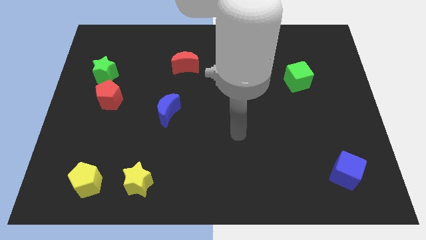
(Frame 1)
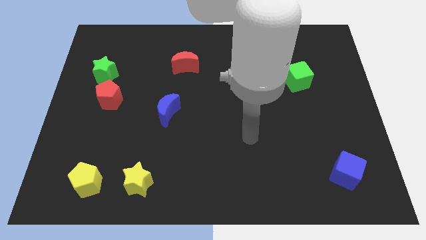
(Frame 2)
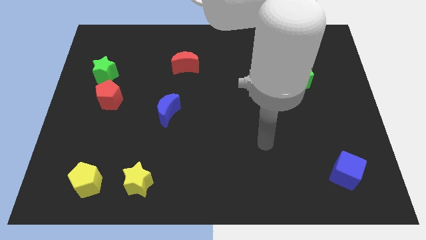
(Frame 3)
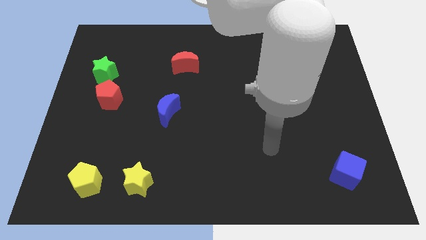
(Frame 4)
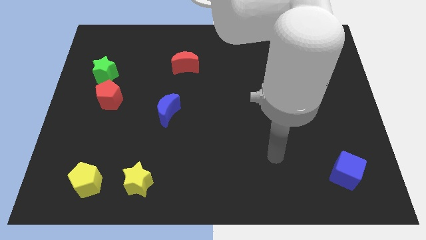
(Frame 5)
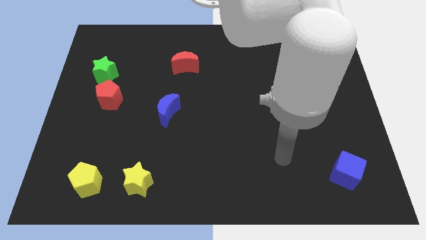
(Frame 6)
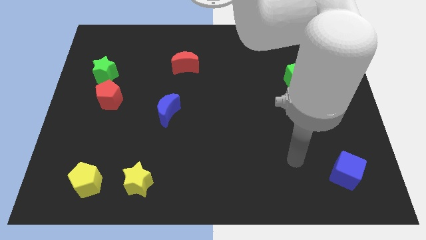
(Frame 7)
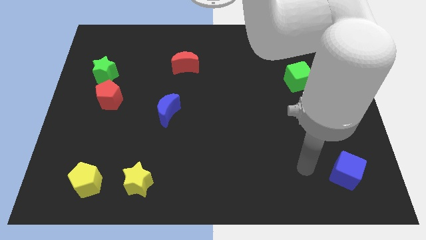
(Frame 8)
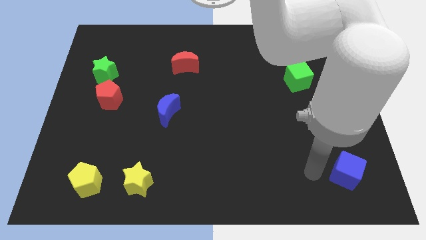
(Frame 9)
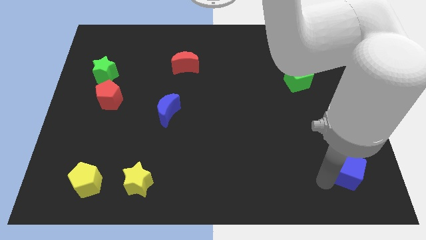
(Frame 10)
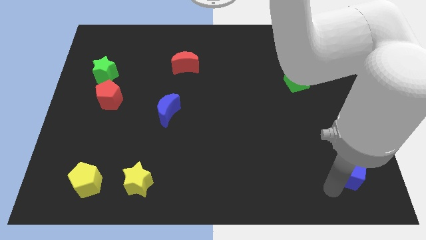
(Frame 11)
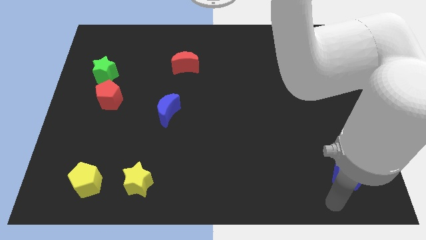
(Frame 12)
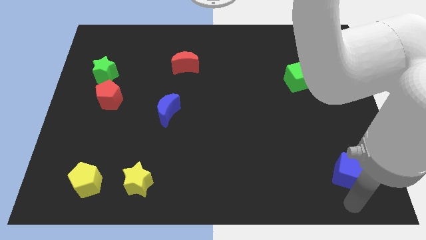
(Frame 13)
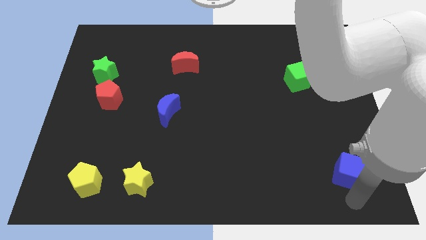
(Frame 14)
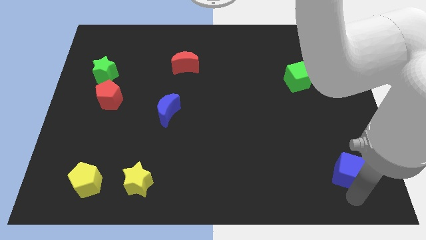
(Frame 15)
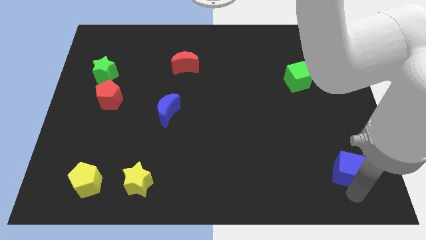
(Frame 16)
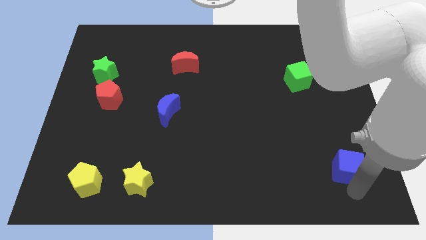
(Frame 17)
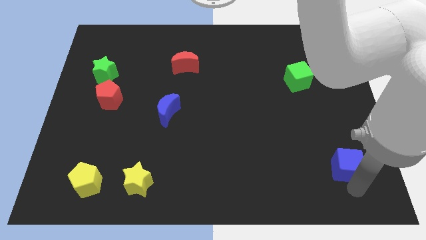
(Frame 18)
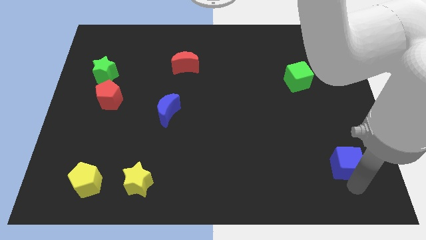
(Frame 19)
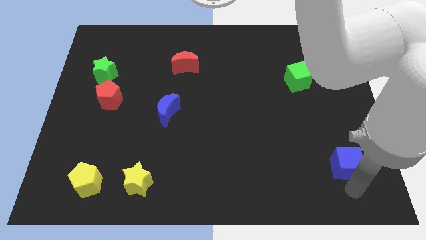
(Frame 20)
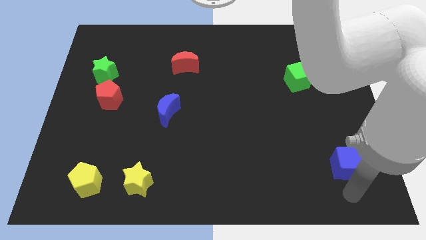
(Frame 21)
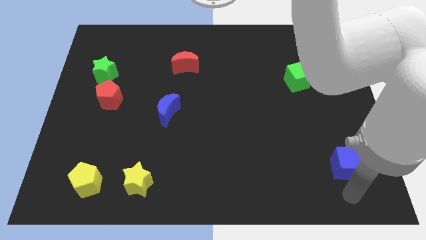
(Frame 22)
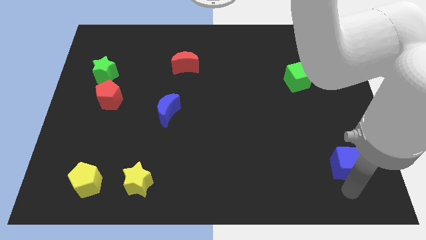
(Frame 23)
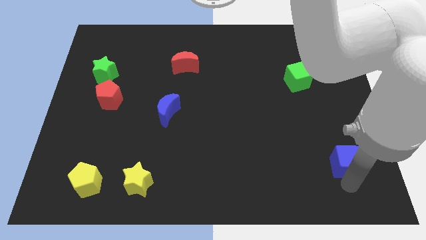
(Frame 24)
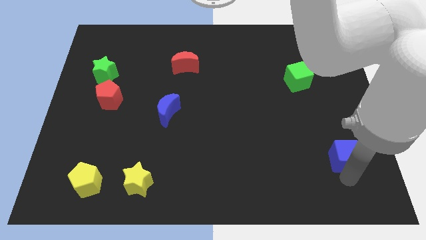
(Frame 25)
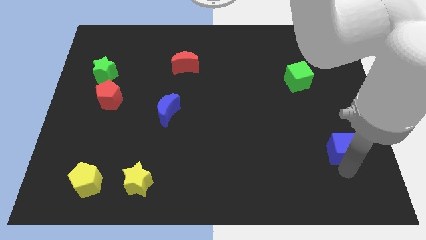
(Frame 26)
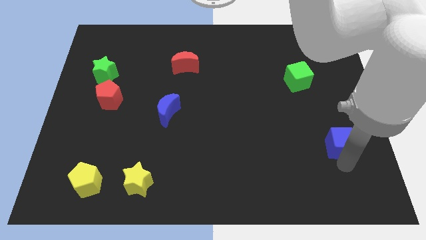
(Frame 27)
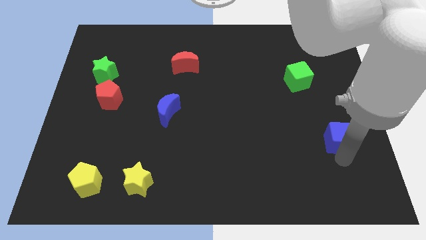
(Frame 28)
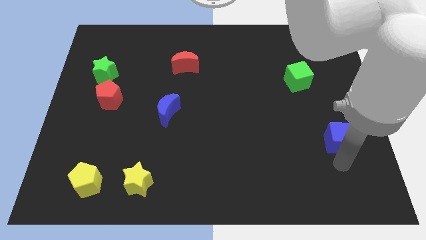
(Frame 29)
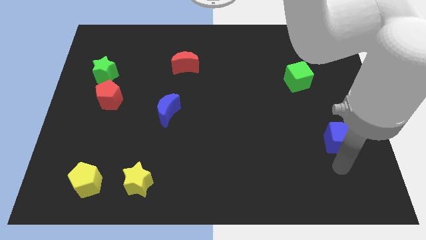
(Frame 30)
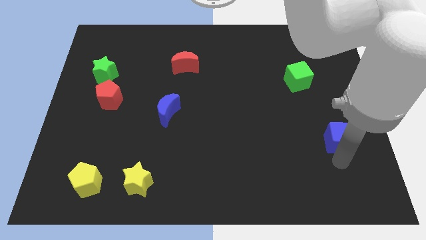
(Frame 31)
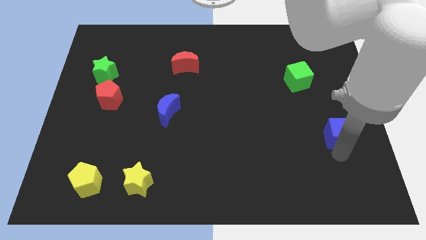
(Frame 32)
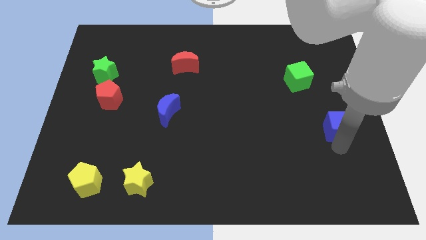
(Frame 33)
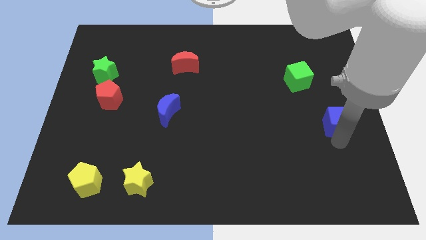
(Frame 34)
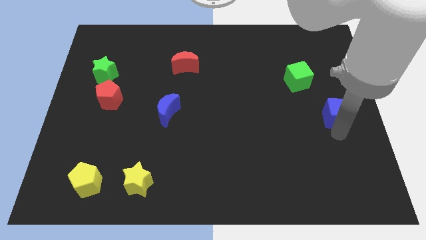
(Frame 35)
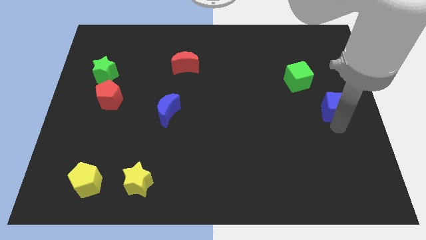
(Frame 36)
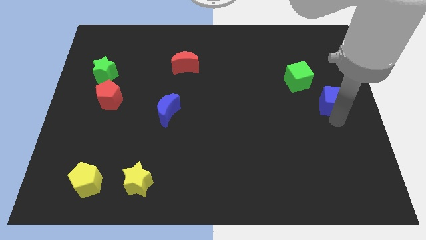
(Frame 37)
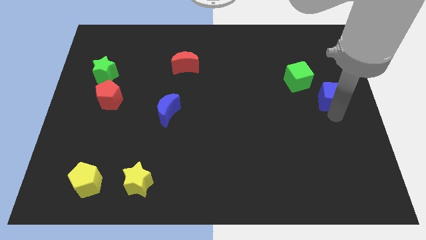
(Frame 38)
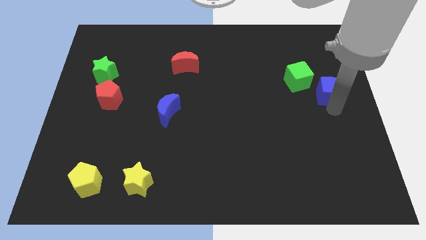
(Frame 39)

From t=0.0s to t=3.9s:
push the blue cube up

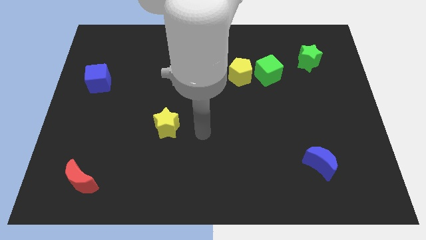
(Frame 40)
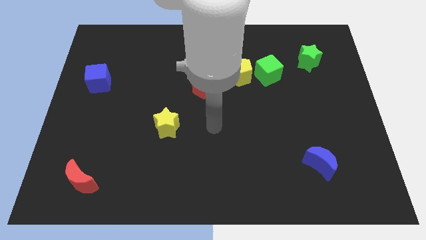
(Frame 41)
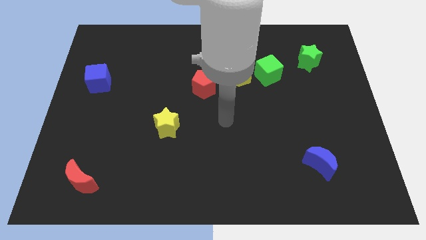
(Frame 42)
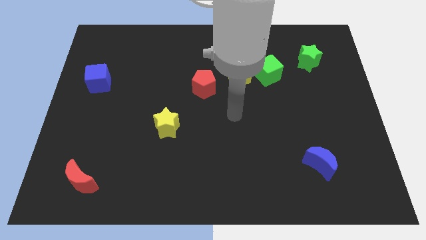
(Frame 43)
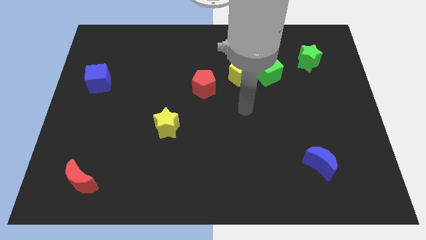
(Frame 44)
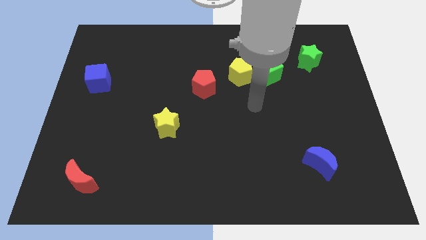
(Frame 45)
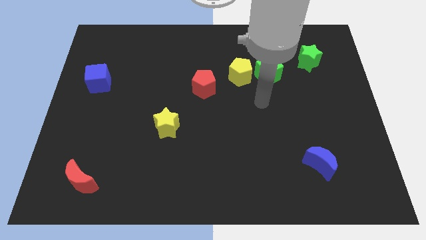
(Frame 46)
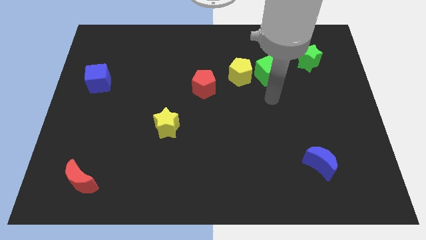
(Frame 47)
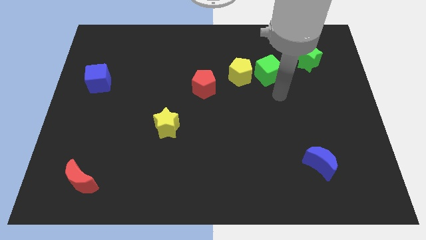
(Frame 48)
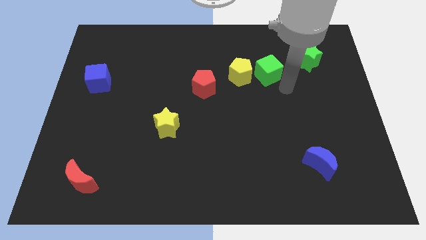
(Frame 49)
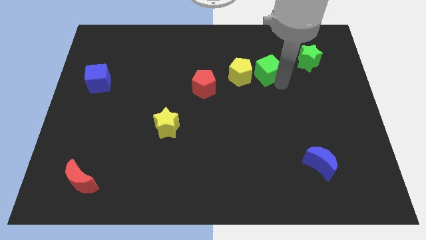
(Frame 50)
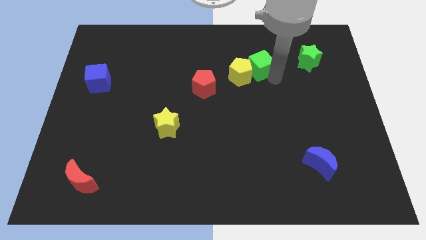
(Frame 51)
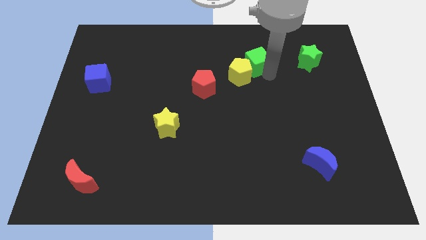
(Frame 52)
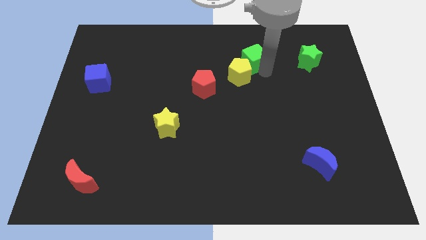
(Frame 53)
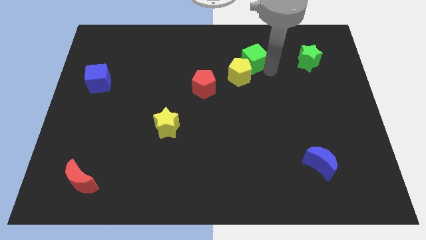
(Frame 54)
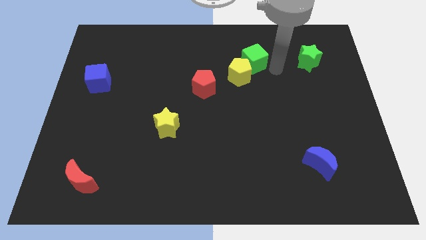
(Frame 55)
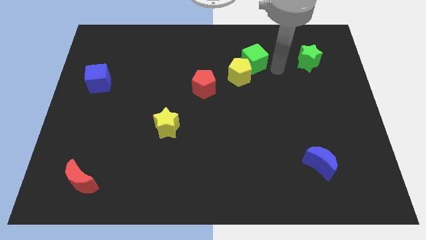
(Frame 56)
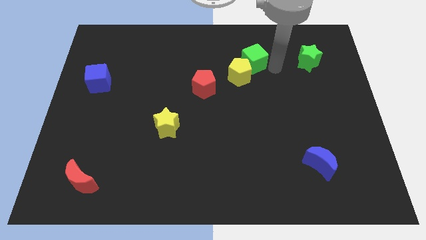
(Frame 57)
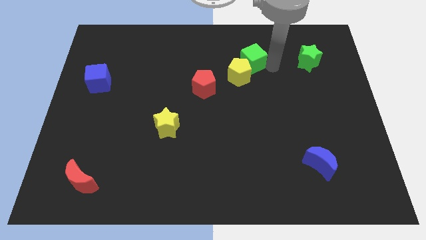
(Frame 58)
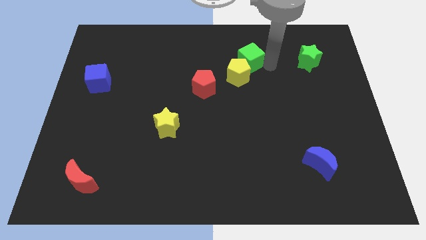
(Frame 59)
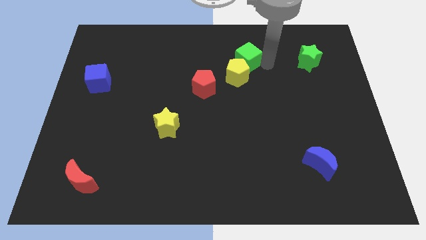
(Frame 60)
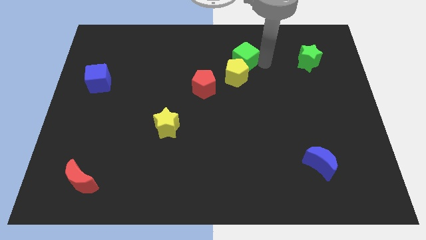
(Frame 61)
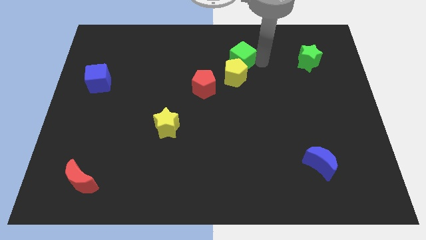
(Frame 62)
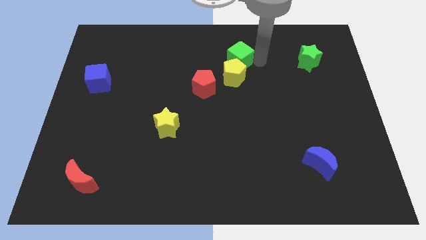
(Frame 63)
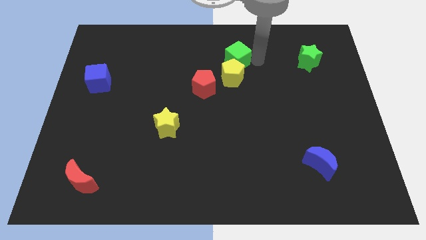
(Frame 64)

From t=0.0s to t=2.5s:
slide the green cube to the left somewhat

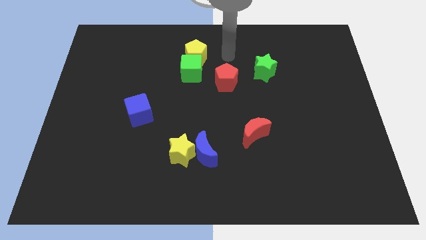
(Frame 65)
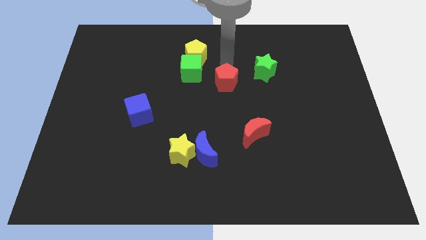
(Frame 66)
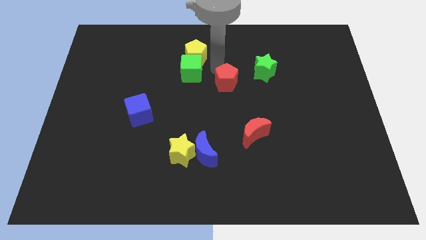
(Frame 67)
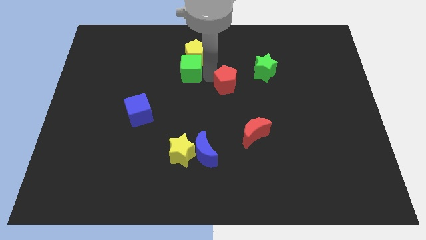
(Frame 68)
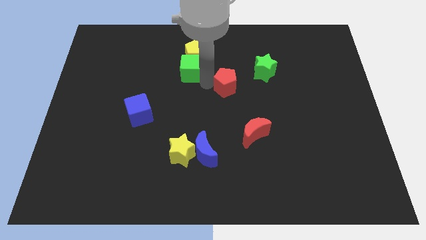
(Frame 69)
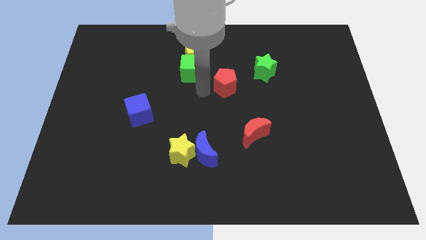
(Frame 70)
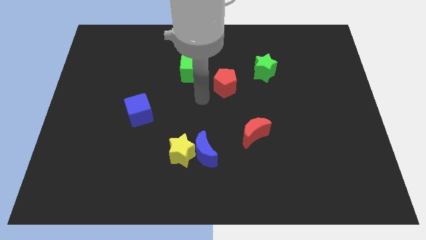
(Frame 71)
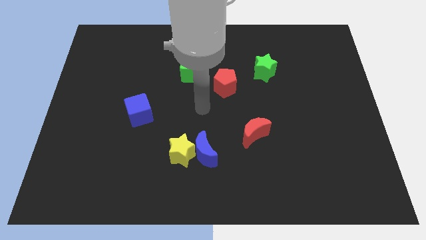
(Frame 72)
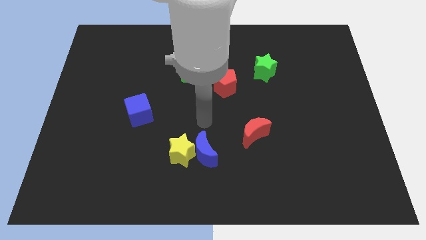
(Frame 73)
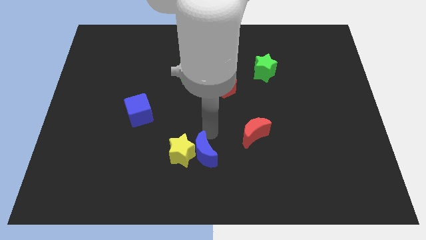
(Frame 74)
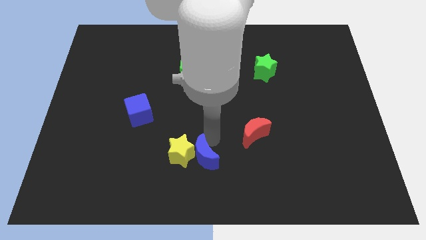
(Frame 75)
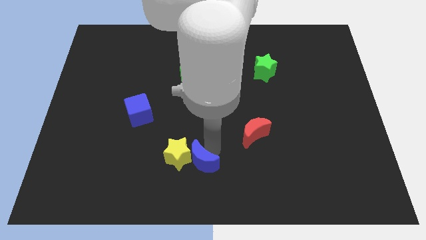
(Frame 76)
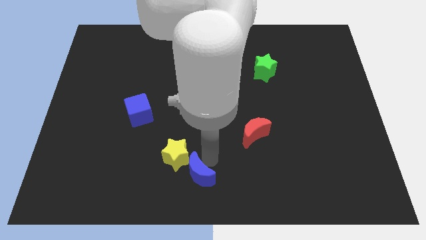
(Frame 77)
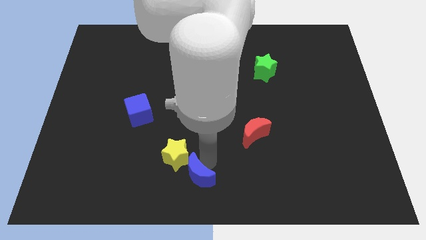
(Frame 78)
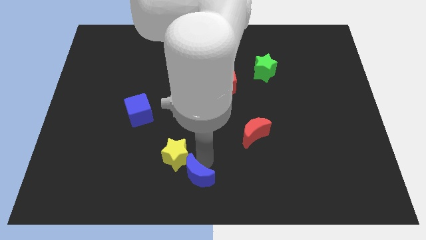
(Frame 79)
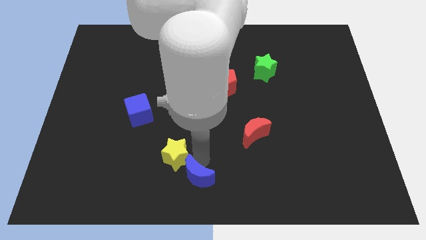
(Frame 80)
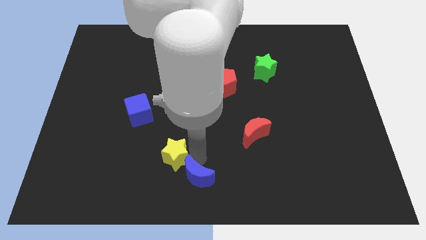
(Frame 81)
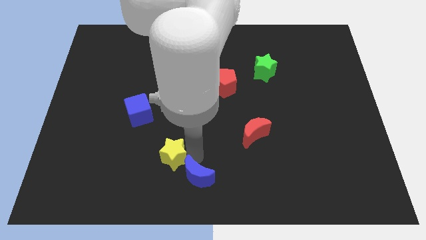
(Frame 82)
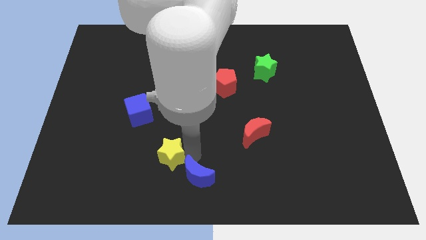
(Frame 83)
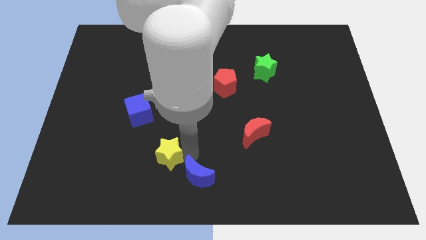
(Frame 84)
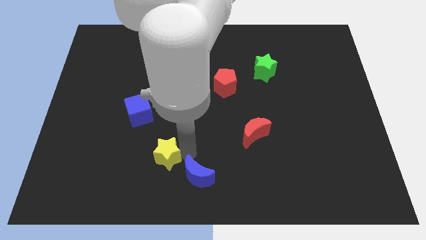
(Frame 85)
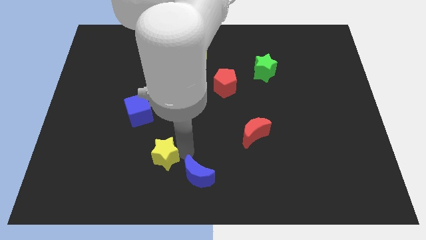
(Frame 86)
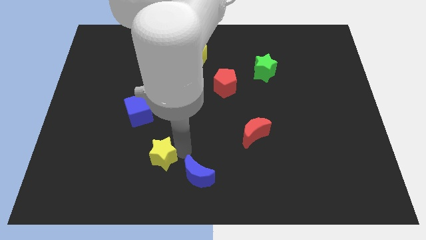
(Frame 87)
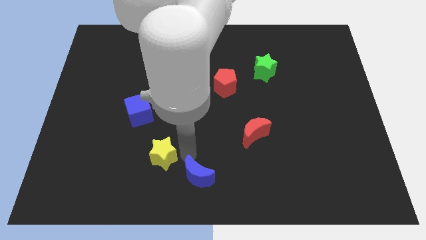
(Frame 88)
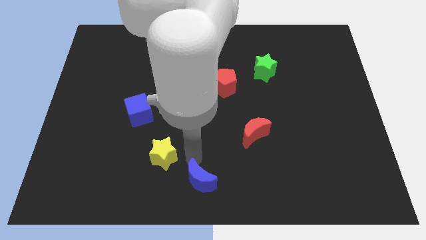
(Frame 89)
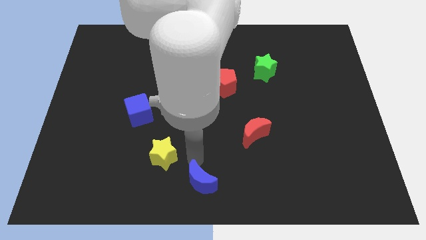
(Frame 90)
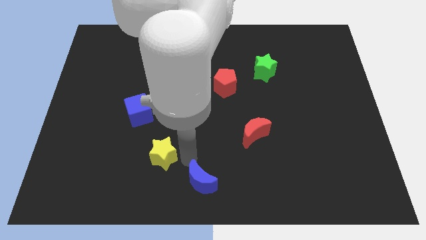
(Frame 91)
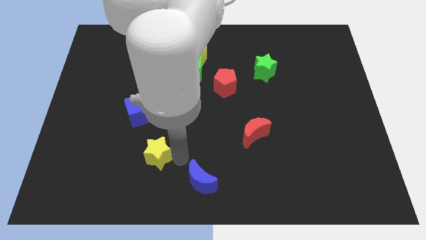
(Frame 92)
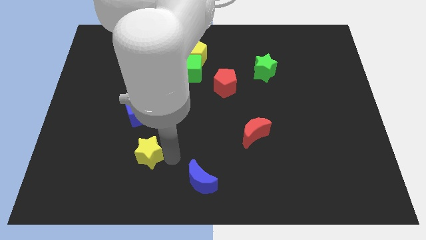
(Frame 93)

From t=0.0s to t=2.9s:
slide the yellow star to the left a bit
